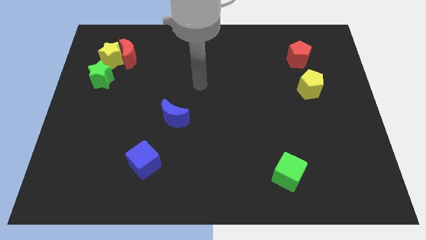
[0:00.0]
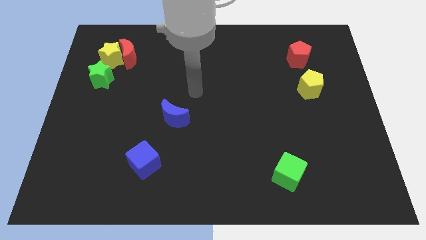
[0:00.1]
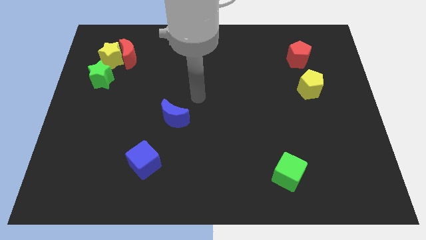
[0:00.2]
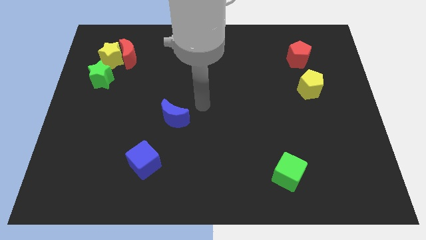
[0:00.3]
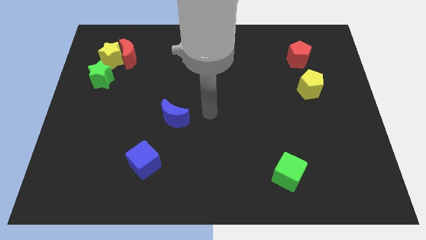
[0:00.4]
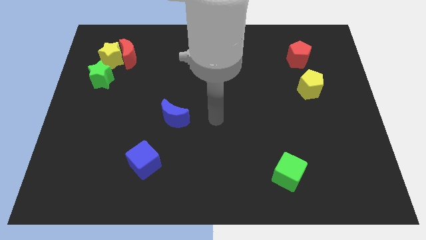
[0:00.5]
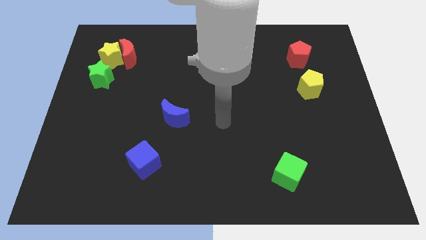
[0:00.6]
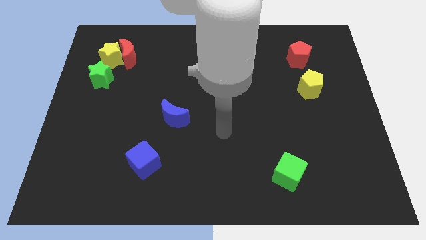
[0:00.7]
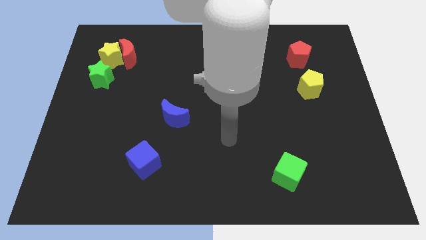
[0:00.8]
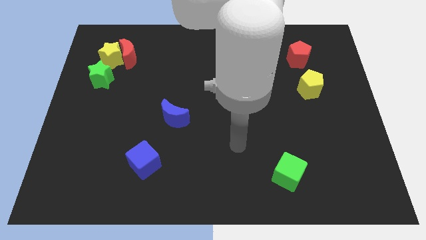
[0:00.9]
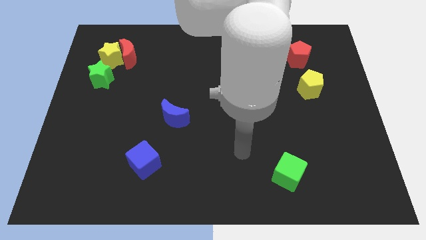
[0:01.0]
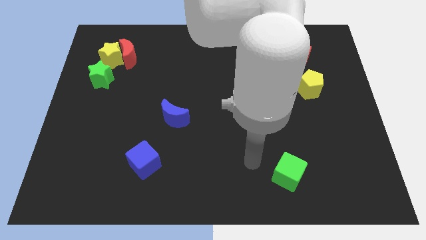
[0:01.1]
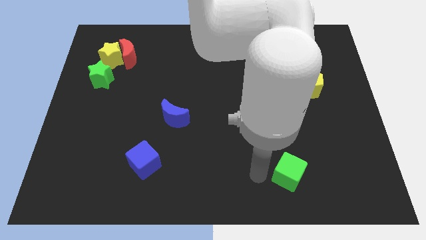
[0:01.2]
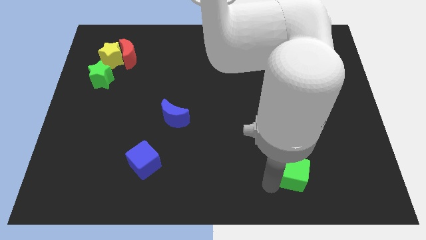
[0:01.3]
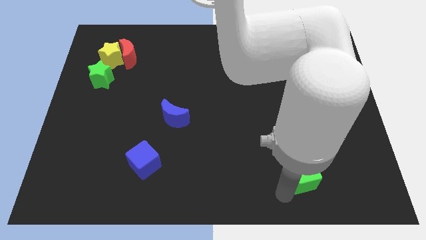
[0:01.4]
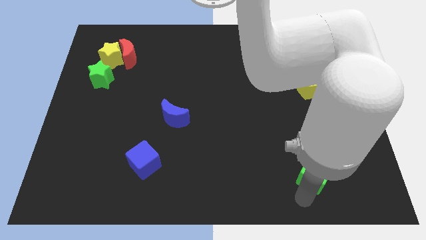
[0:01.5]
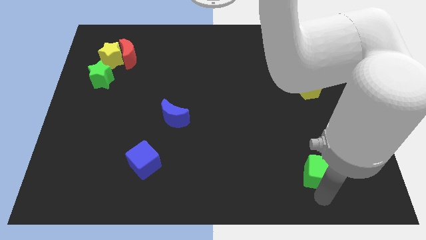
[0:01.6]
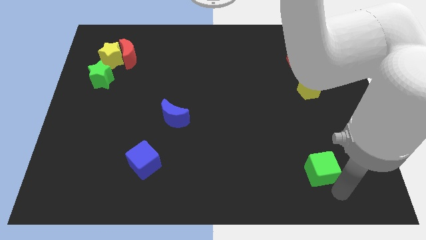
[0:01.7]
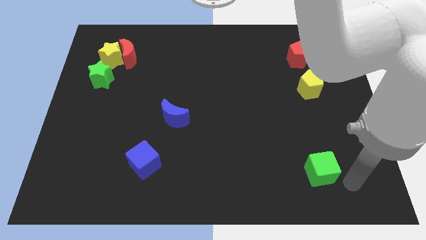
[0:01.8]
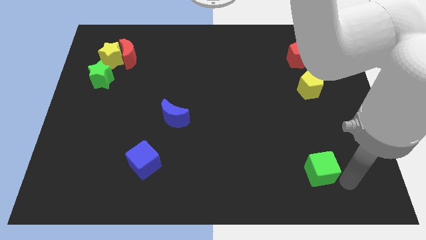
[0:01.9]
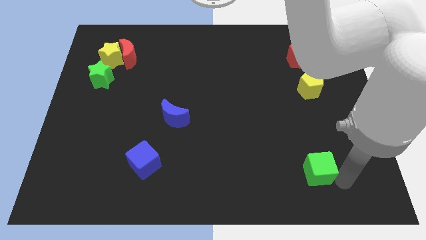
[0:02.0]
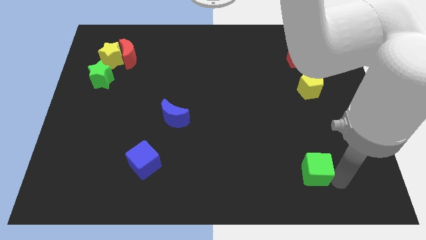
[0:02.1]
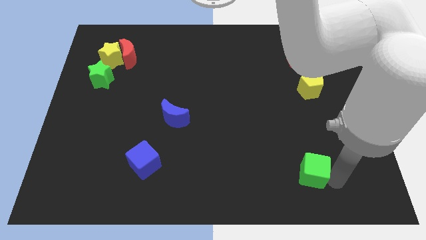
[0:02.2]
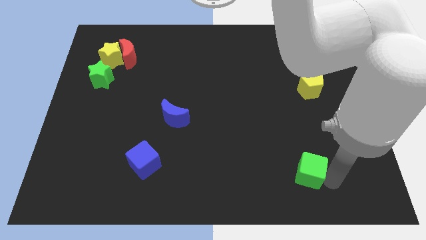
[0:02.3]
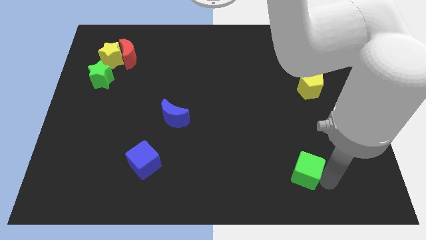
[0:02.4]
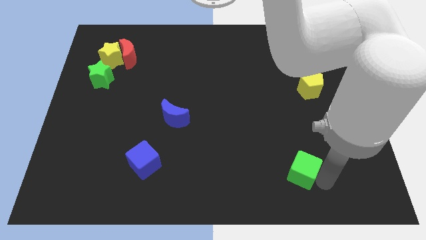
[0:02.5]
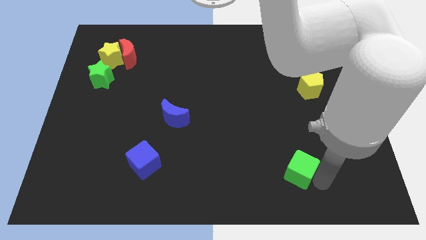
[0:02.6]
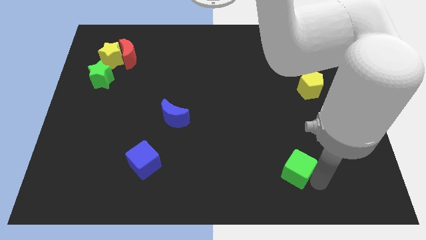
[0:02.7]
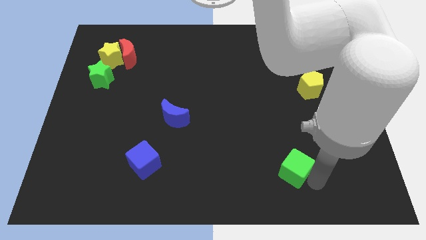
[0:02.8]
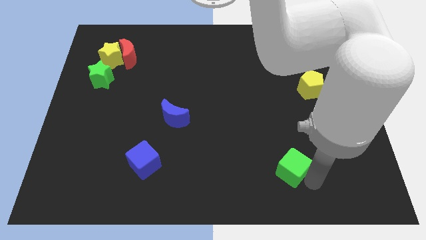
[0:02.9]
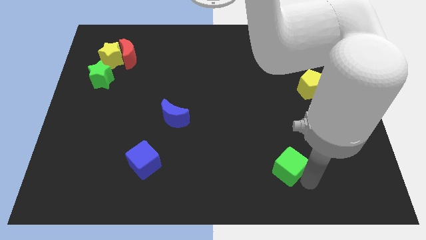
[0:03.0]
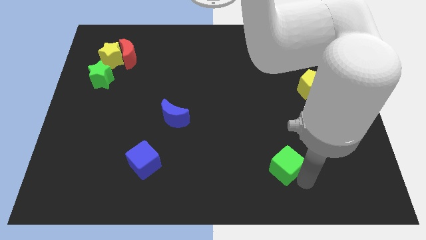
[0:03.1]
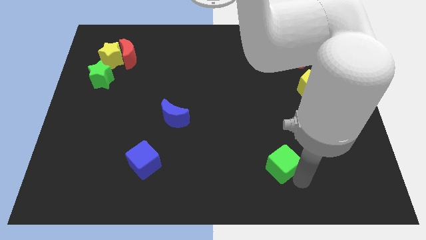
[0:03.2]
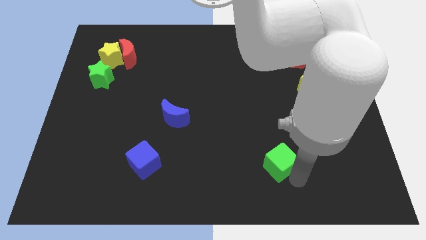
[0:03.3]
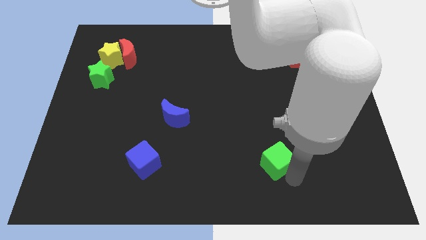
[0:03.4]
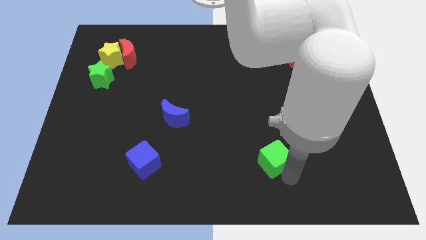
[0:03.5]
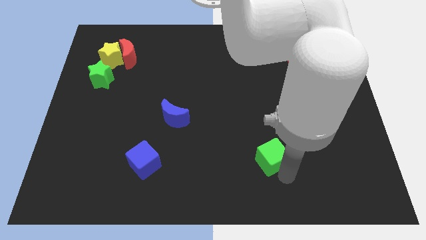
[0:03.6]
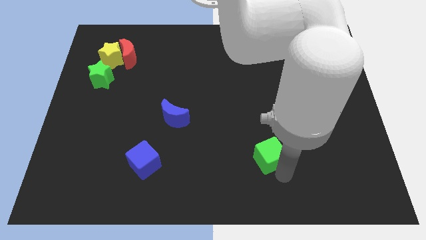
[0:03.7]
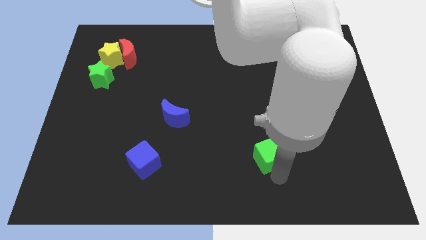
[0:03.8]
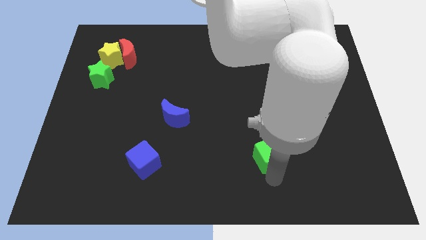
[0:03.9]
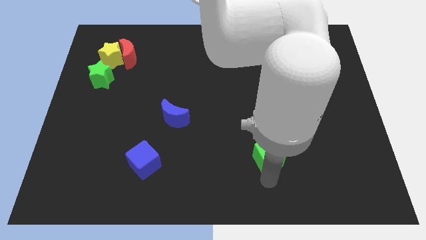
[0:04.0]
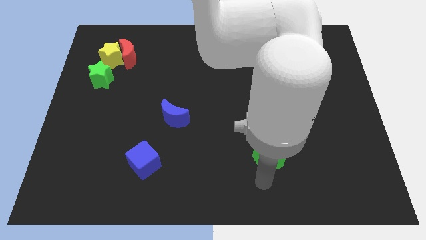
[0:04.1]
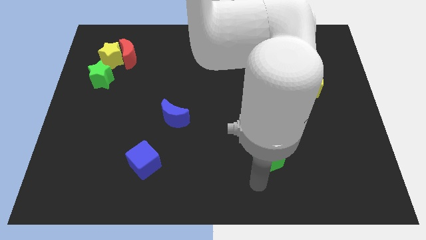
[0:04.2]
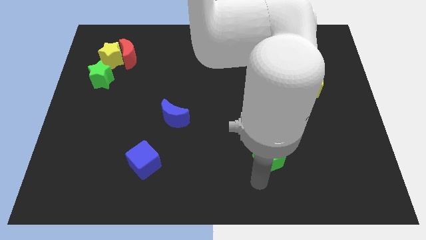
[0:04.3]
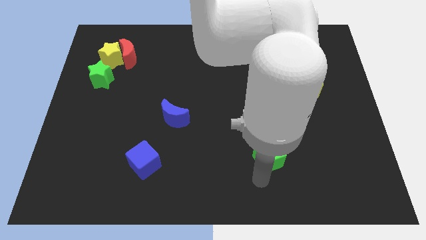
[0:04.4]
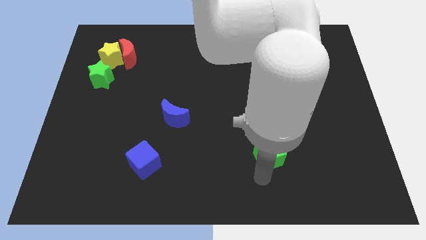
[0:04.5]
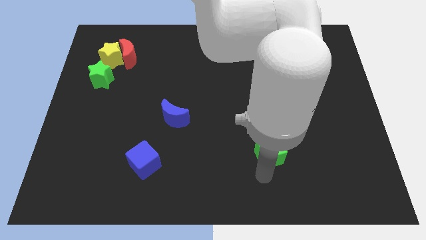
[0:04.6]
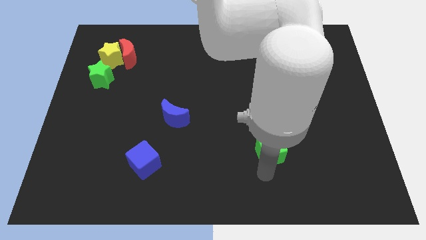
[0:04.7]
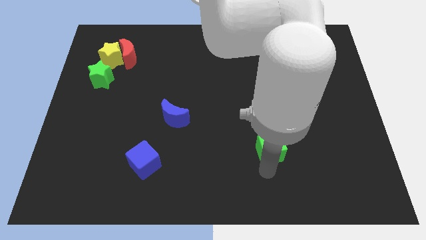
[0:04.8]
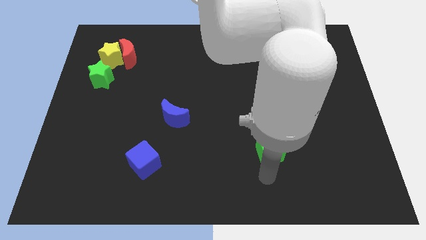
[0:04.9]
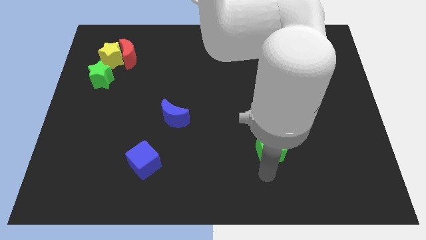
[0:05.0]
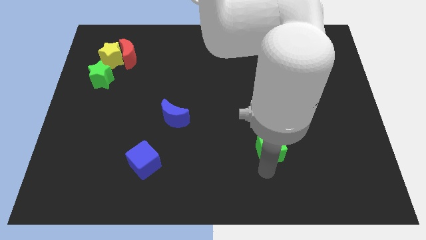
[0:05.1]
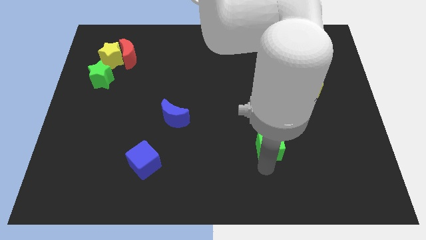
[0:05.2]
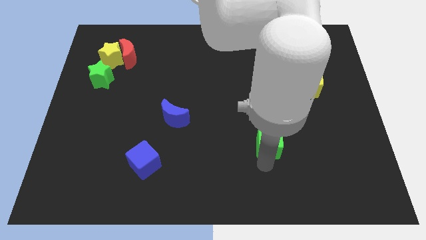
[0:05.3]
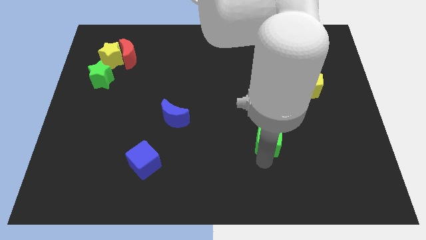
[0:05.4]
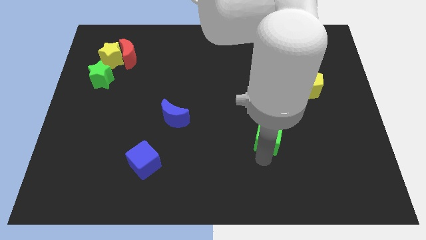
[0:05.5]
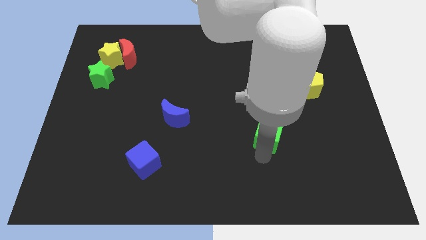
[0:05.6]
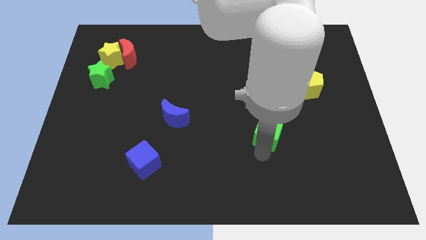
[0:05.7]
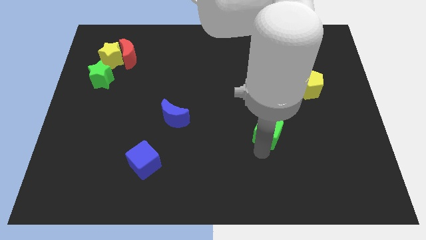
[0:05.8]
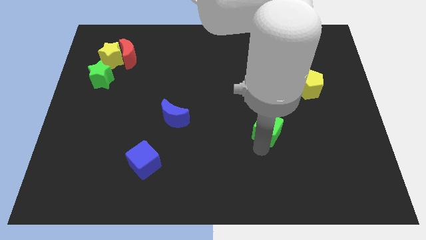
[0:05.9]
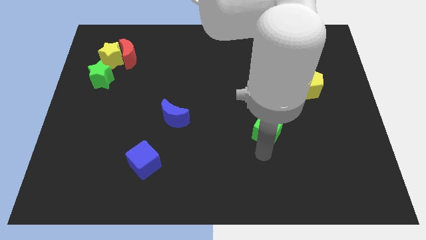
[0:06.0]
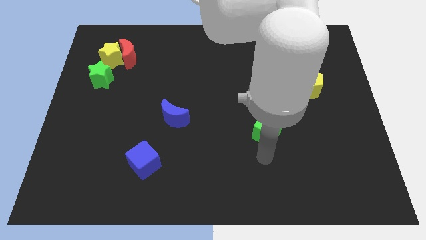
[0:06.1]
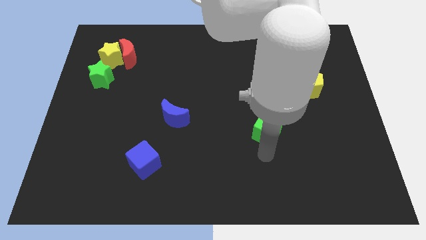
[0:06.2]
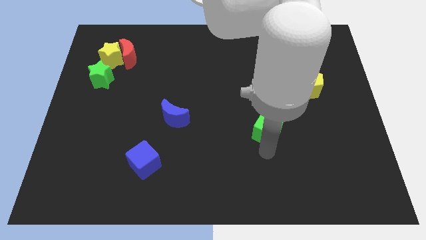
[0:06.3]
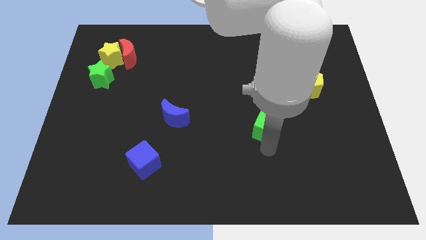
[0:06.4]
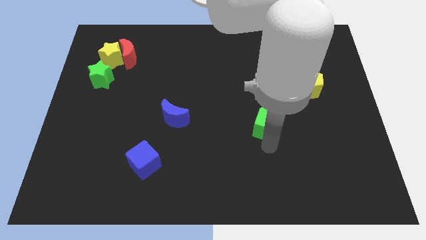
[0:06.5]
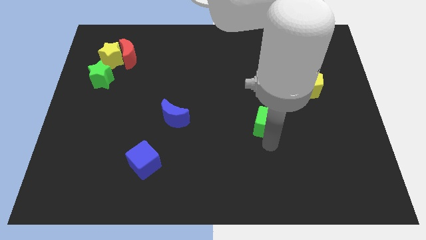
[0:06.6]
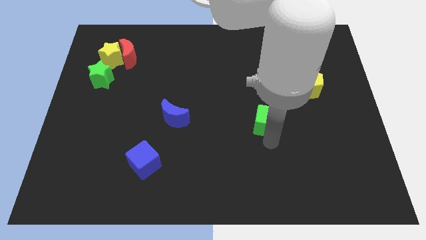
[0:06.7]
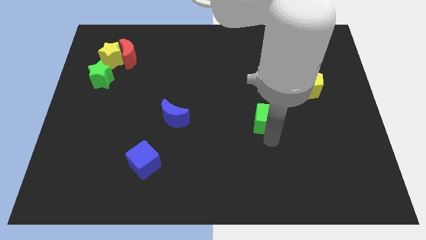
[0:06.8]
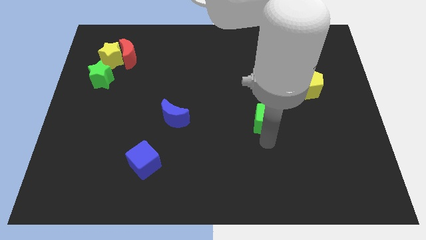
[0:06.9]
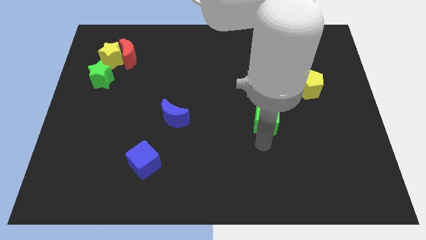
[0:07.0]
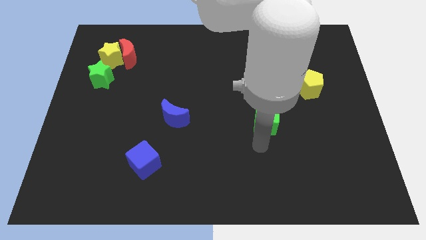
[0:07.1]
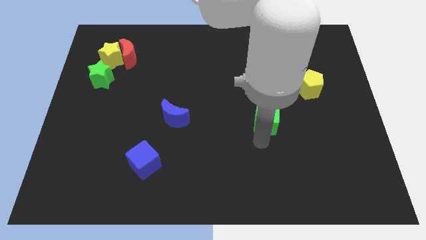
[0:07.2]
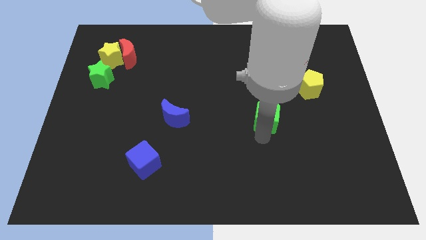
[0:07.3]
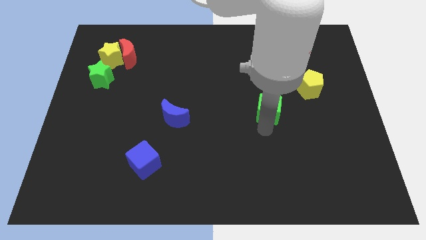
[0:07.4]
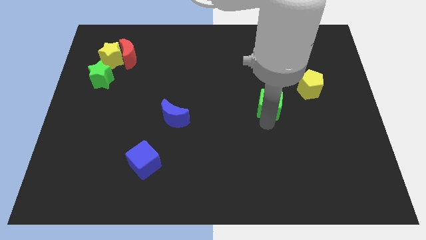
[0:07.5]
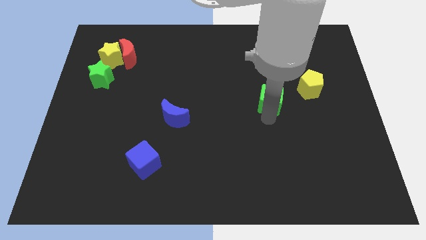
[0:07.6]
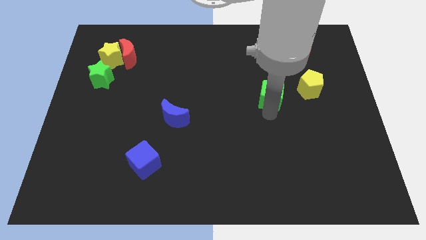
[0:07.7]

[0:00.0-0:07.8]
push the green cube up
